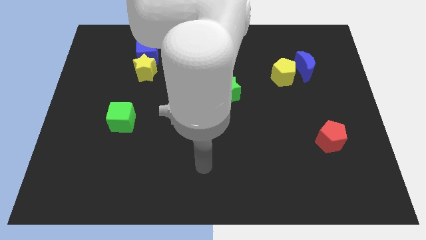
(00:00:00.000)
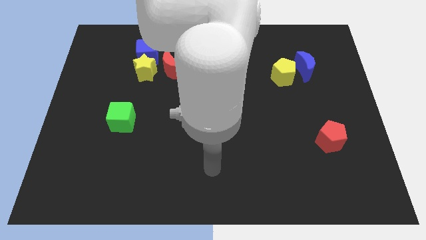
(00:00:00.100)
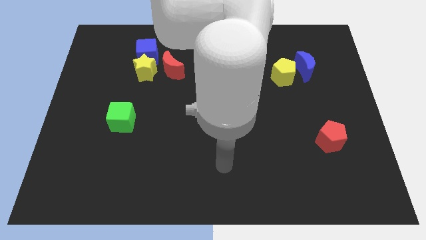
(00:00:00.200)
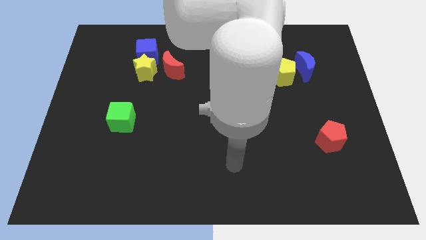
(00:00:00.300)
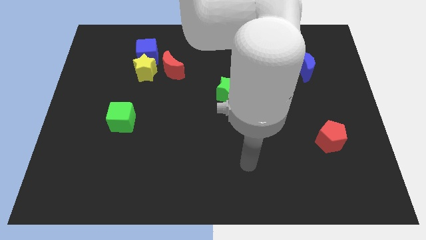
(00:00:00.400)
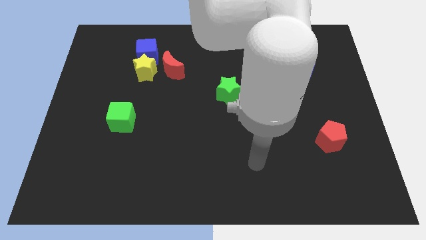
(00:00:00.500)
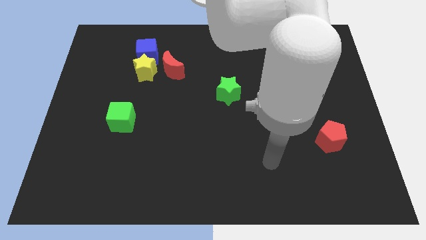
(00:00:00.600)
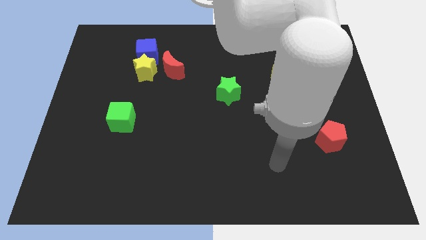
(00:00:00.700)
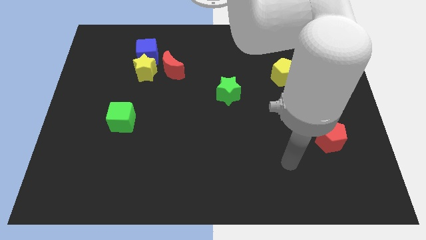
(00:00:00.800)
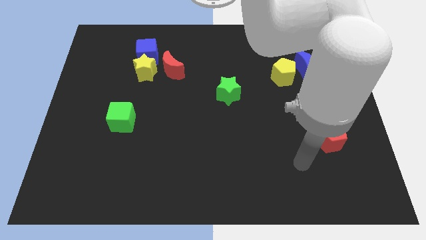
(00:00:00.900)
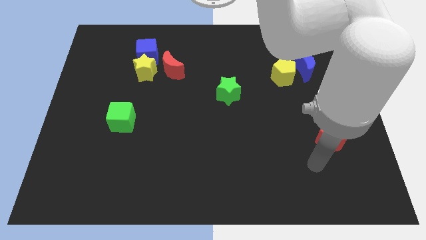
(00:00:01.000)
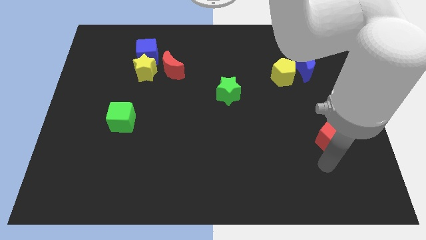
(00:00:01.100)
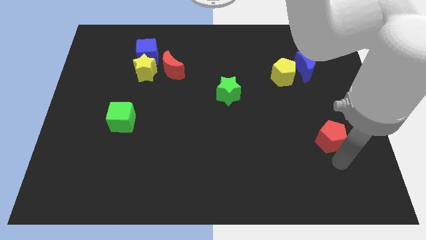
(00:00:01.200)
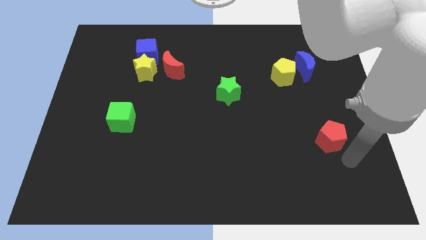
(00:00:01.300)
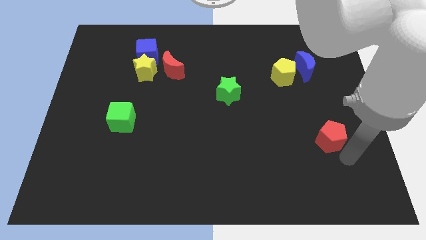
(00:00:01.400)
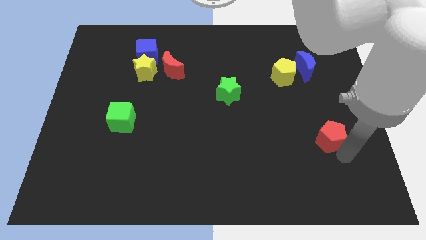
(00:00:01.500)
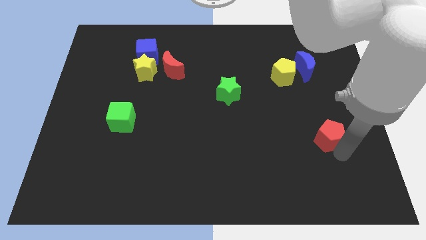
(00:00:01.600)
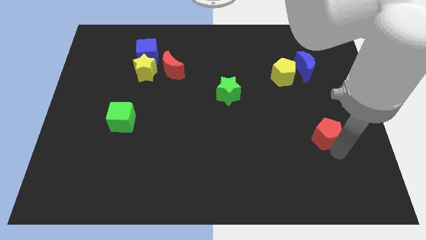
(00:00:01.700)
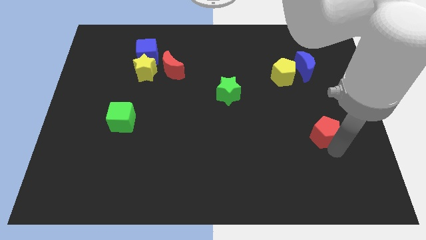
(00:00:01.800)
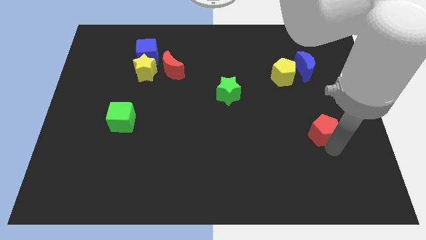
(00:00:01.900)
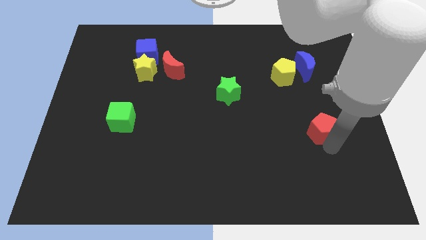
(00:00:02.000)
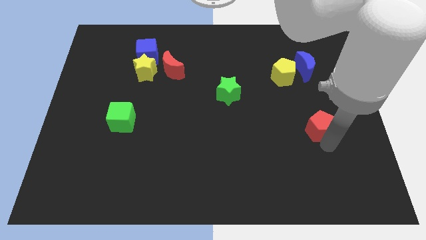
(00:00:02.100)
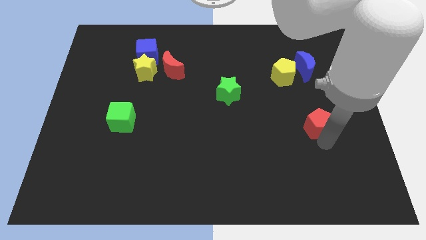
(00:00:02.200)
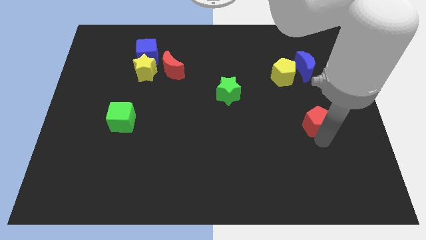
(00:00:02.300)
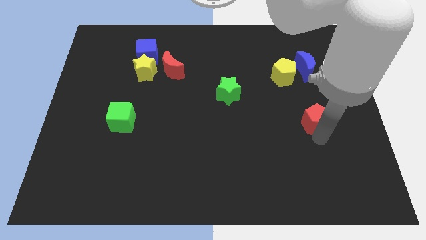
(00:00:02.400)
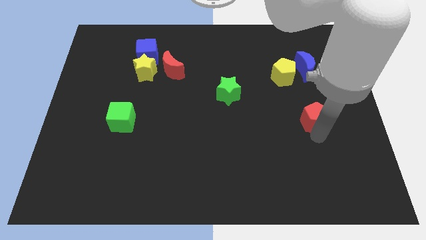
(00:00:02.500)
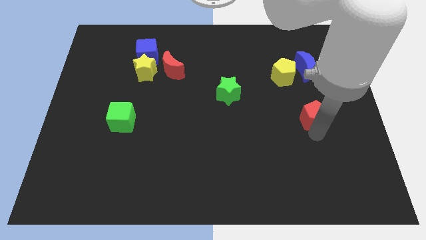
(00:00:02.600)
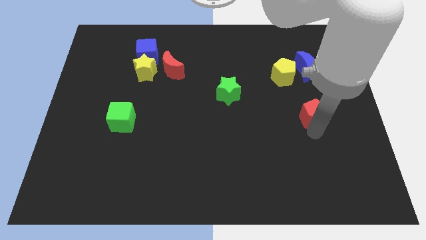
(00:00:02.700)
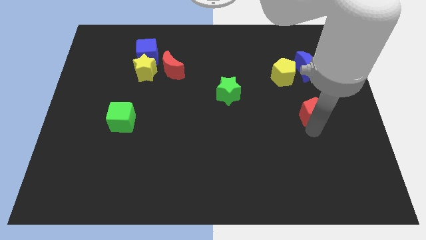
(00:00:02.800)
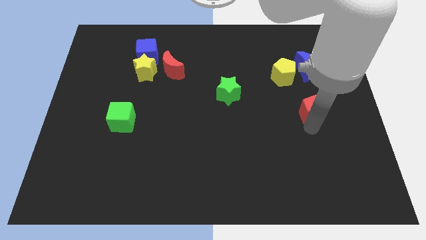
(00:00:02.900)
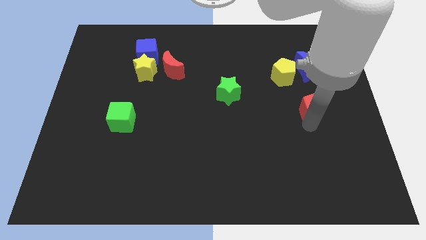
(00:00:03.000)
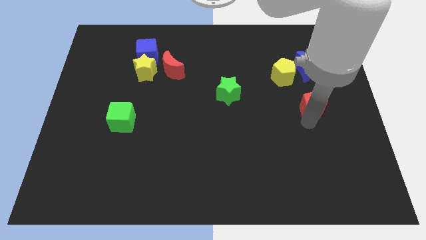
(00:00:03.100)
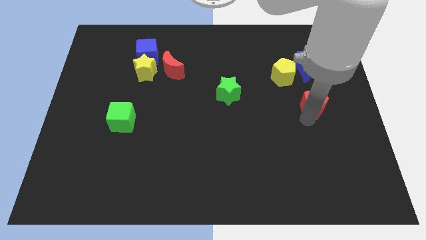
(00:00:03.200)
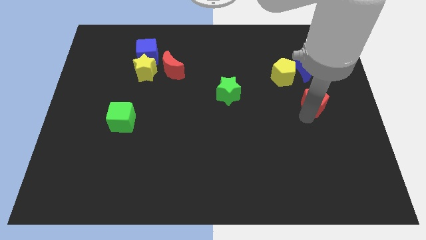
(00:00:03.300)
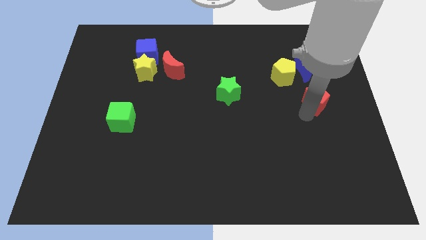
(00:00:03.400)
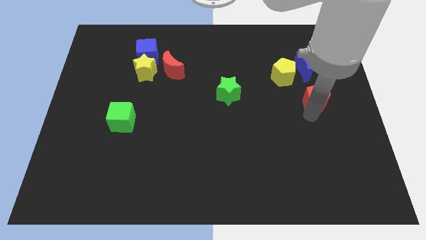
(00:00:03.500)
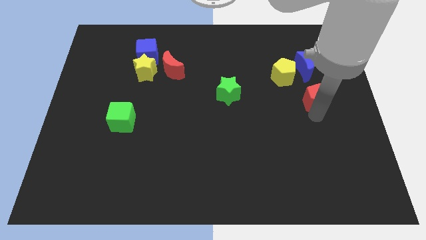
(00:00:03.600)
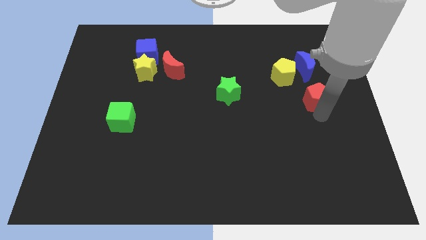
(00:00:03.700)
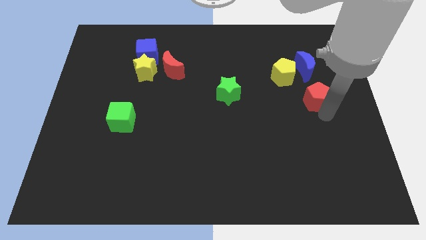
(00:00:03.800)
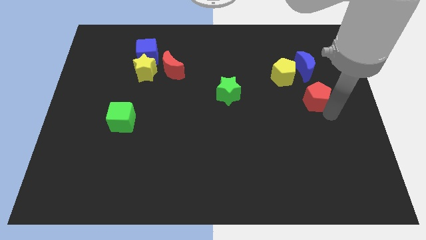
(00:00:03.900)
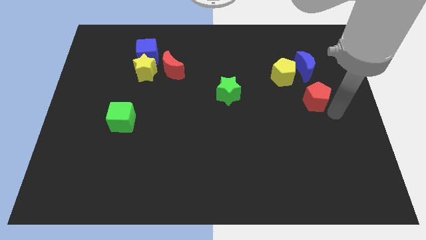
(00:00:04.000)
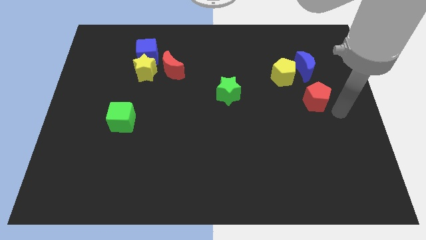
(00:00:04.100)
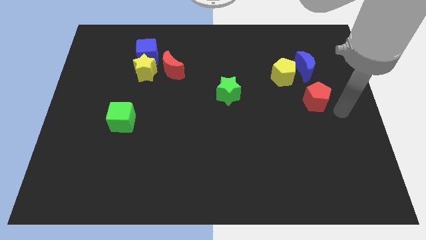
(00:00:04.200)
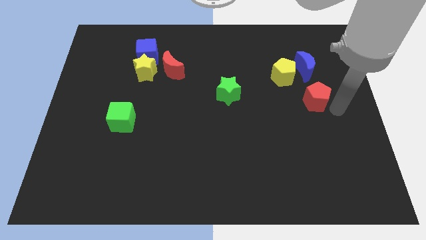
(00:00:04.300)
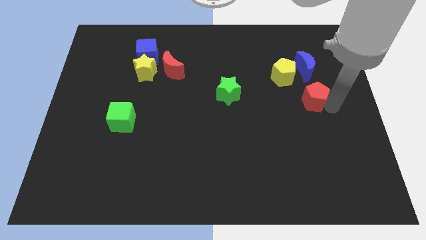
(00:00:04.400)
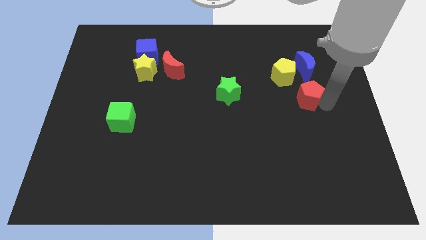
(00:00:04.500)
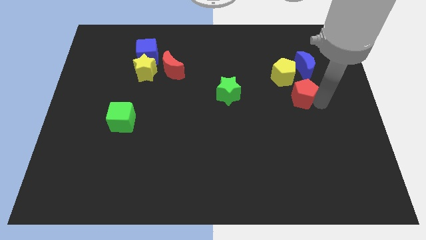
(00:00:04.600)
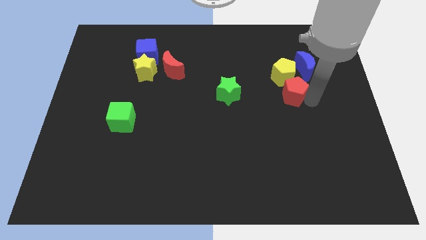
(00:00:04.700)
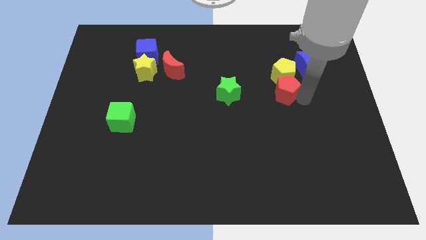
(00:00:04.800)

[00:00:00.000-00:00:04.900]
put the red pentagon to the yellow pentagon

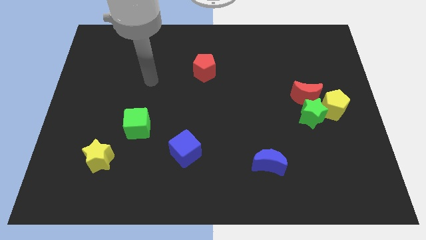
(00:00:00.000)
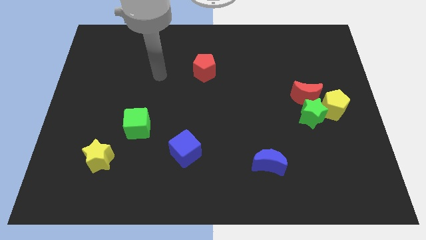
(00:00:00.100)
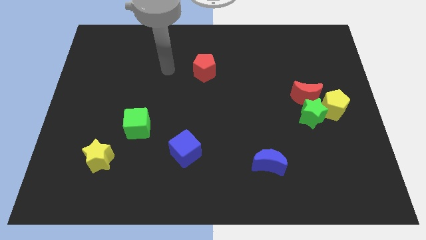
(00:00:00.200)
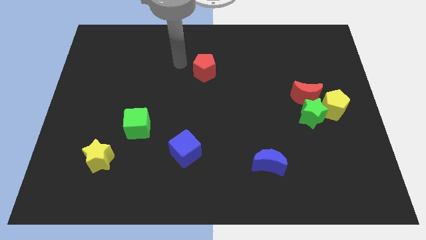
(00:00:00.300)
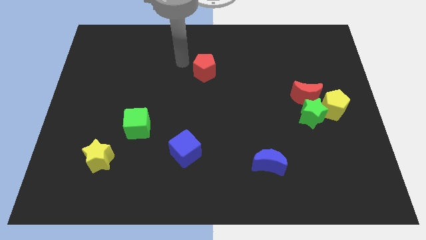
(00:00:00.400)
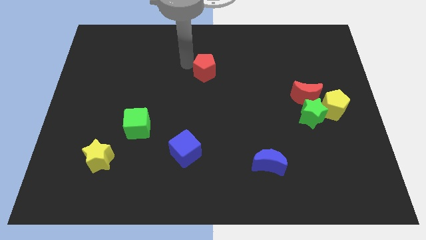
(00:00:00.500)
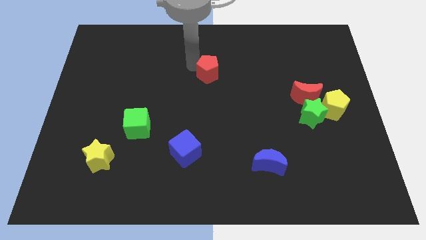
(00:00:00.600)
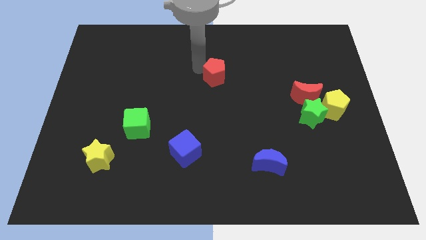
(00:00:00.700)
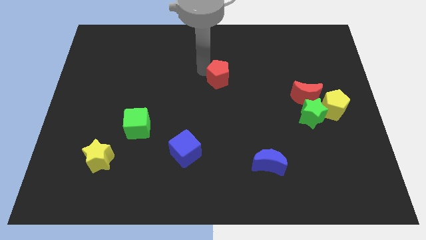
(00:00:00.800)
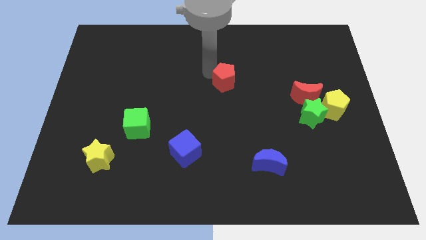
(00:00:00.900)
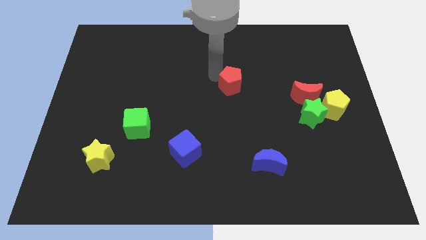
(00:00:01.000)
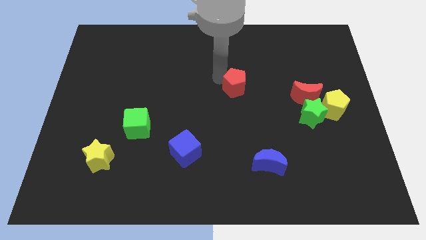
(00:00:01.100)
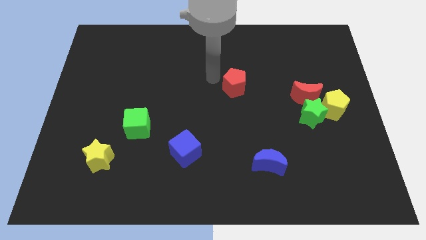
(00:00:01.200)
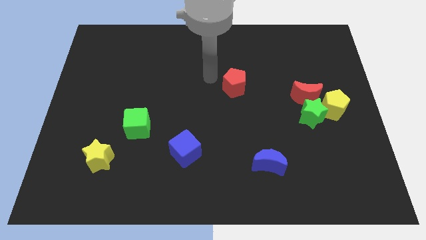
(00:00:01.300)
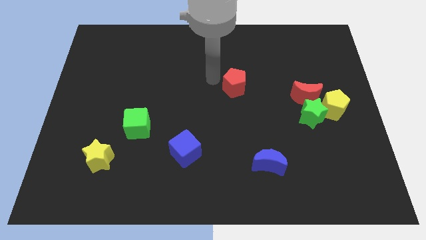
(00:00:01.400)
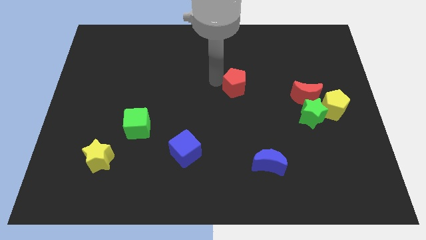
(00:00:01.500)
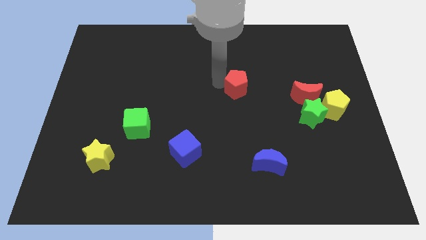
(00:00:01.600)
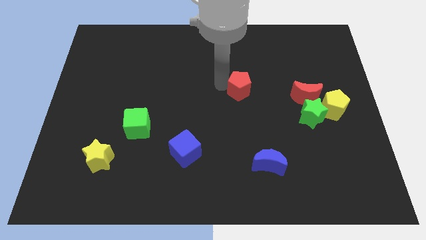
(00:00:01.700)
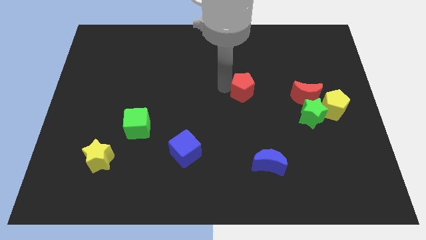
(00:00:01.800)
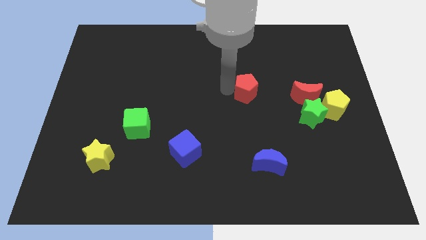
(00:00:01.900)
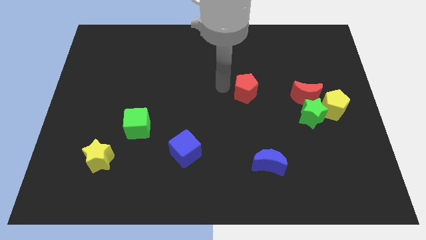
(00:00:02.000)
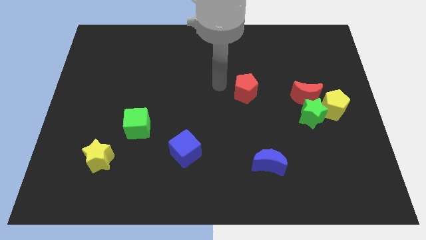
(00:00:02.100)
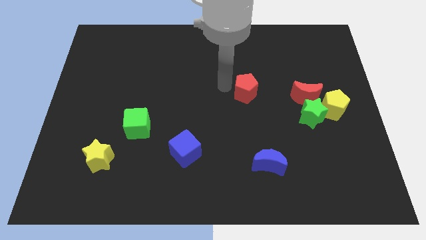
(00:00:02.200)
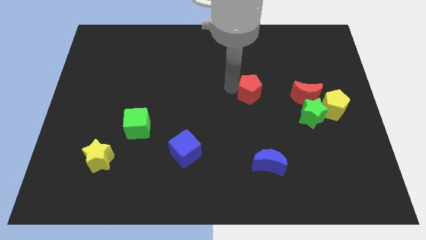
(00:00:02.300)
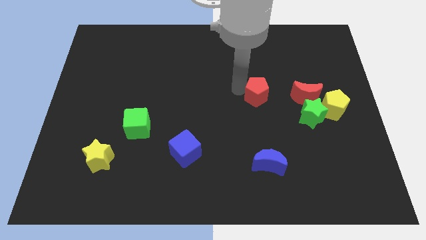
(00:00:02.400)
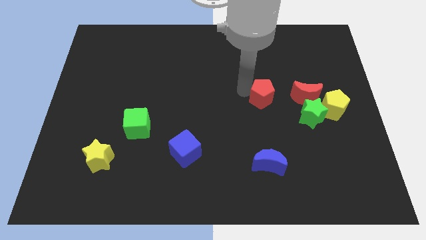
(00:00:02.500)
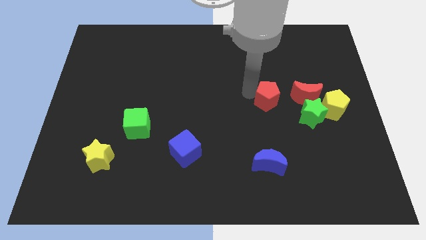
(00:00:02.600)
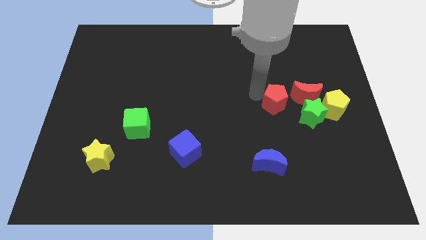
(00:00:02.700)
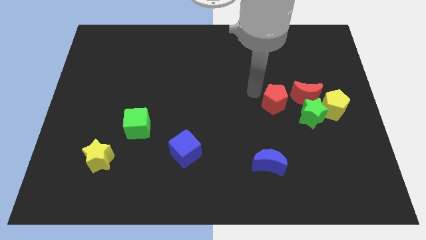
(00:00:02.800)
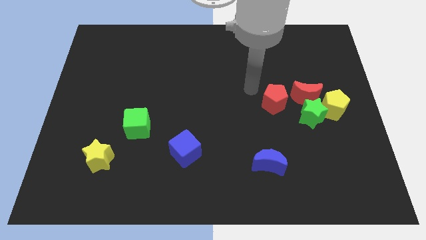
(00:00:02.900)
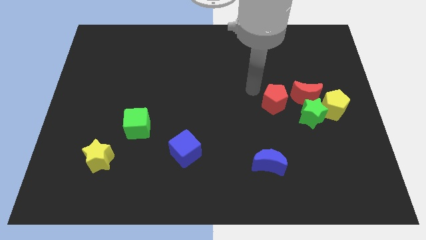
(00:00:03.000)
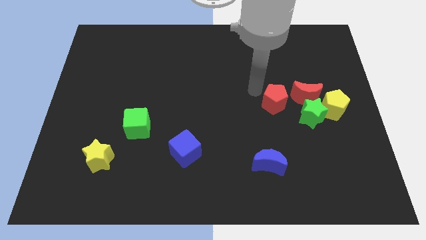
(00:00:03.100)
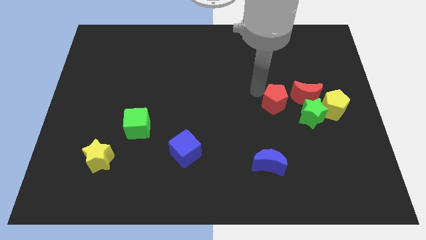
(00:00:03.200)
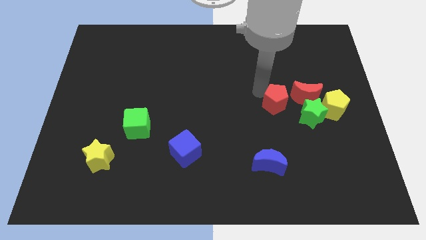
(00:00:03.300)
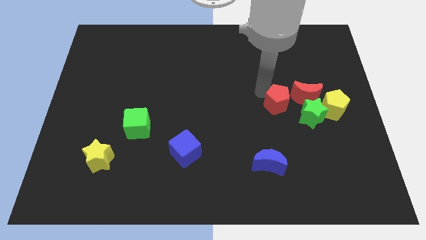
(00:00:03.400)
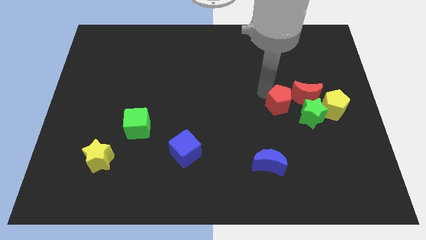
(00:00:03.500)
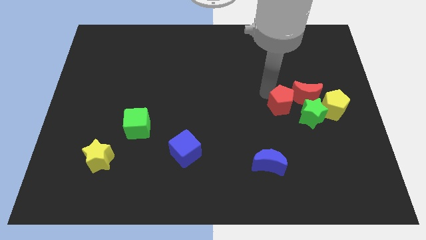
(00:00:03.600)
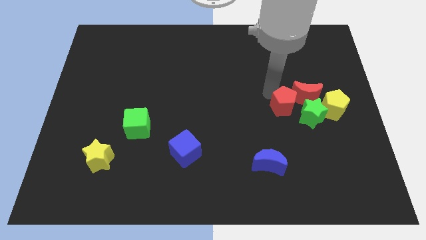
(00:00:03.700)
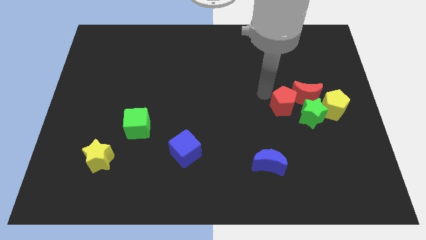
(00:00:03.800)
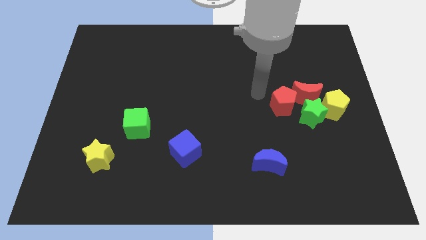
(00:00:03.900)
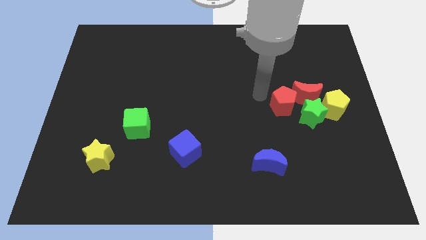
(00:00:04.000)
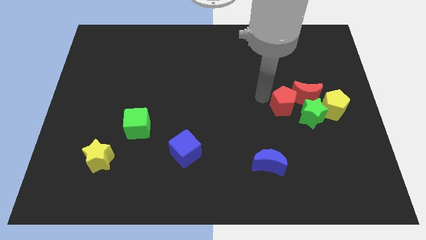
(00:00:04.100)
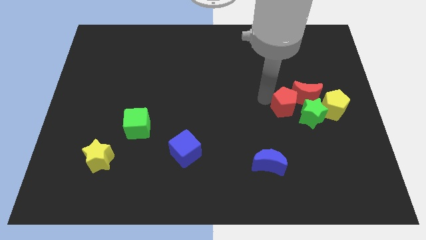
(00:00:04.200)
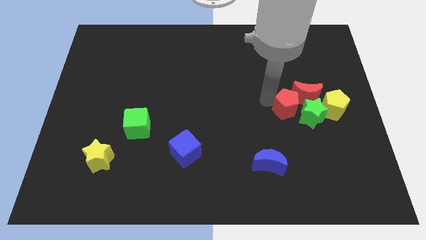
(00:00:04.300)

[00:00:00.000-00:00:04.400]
slide the red pentagon close to the green star
